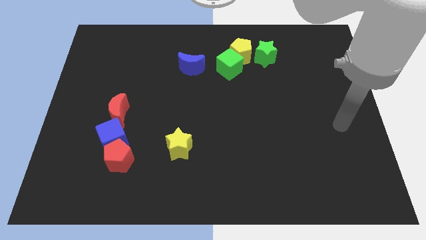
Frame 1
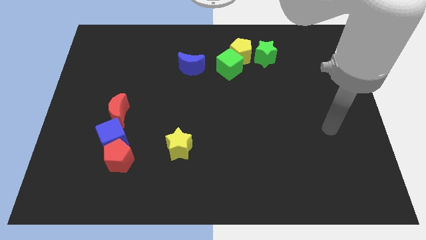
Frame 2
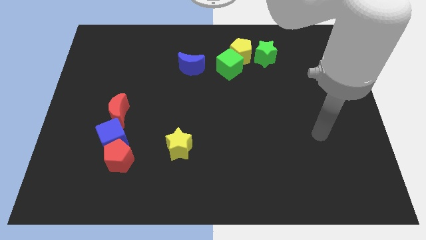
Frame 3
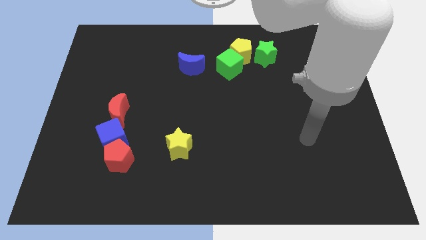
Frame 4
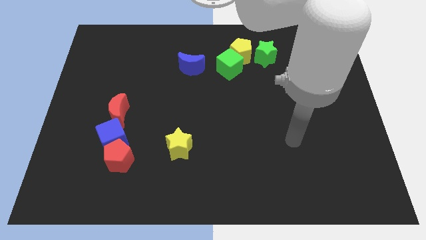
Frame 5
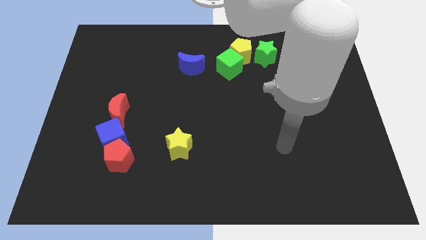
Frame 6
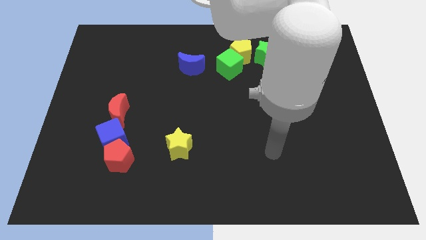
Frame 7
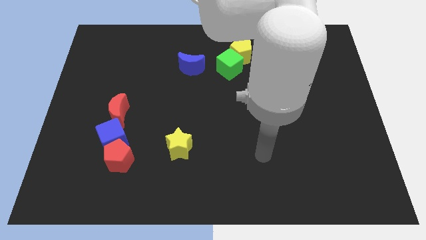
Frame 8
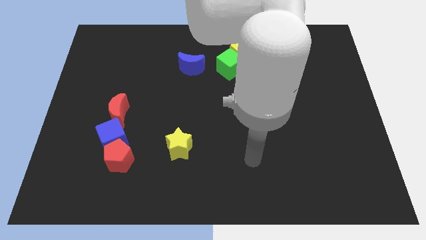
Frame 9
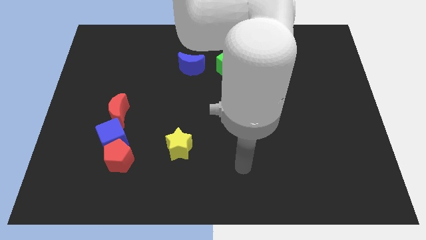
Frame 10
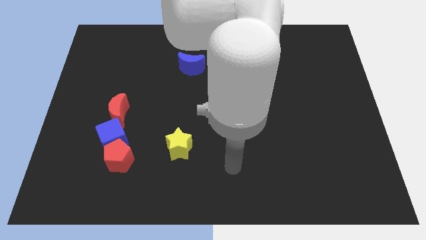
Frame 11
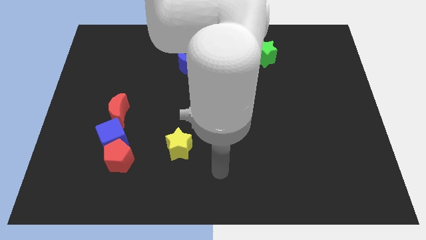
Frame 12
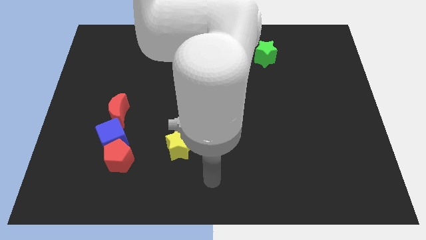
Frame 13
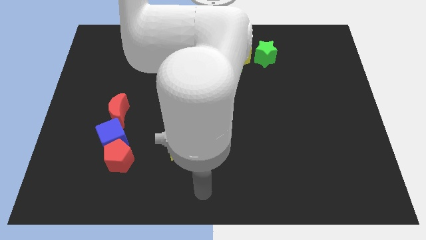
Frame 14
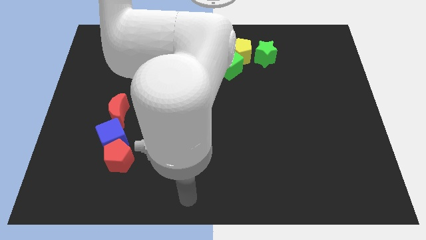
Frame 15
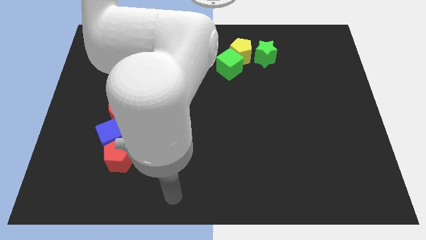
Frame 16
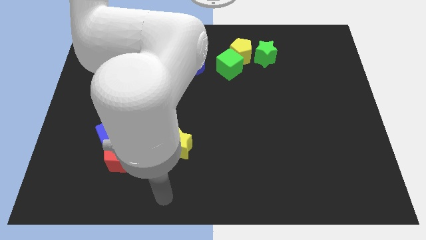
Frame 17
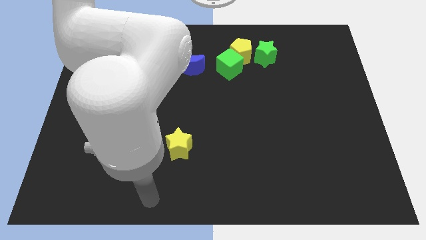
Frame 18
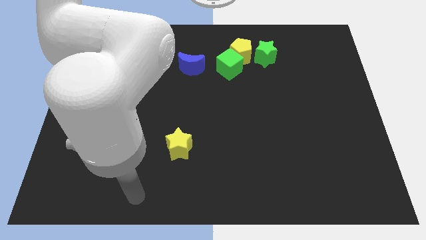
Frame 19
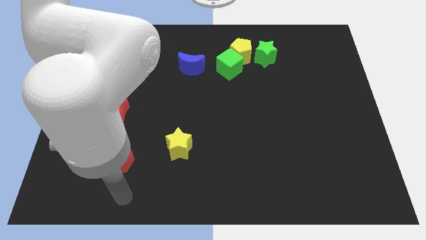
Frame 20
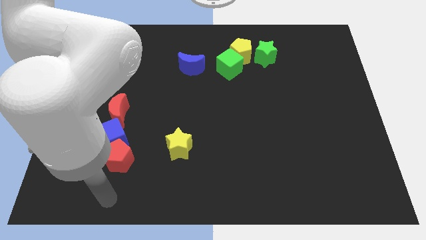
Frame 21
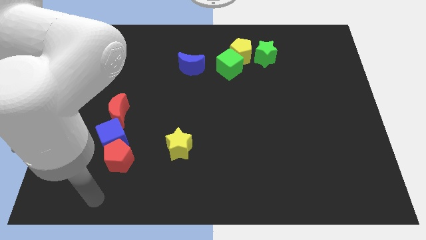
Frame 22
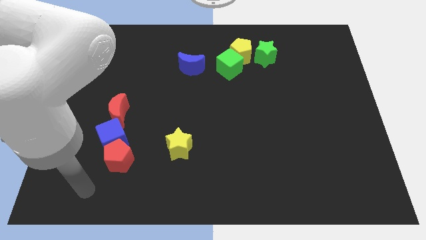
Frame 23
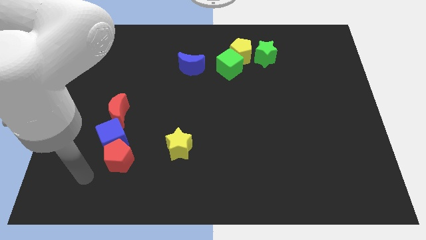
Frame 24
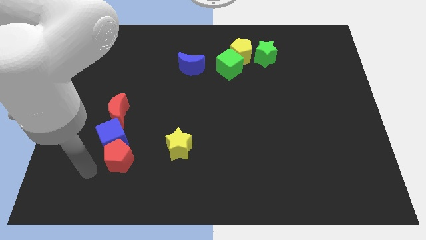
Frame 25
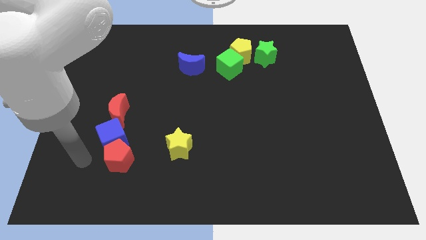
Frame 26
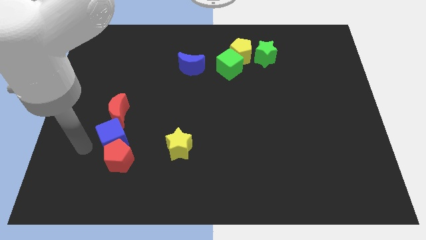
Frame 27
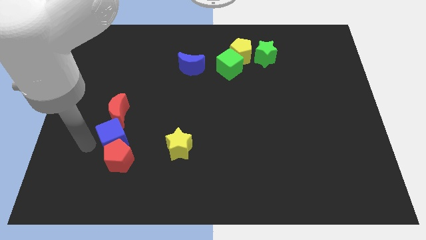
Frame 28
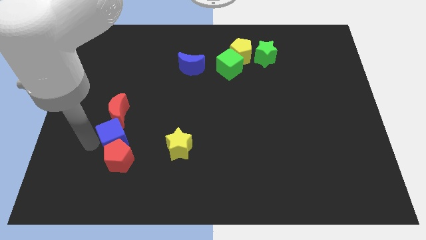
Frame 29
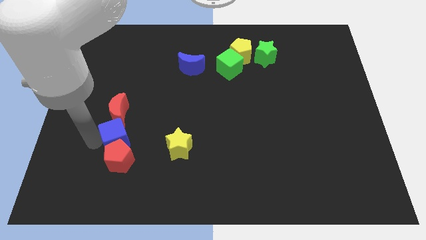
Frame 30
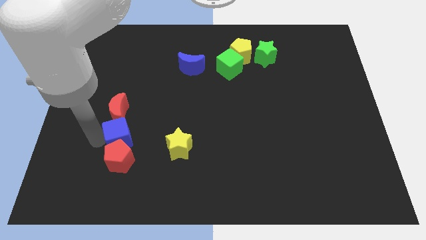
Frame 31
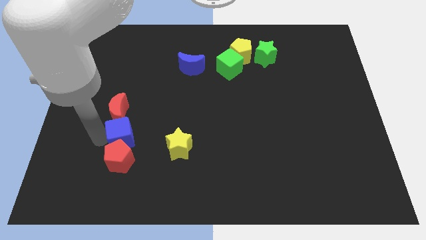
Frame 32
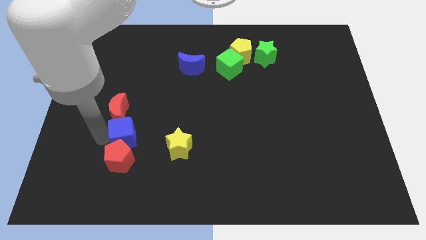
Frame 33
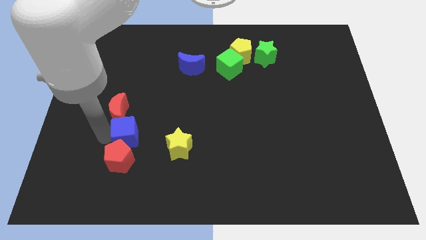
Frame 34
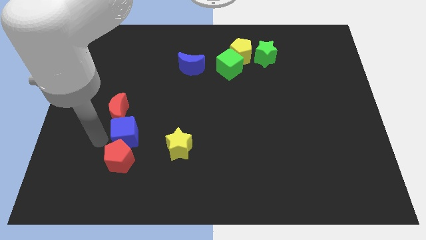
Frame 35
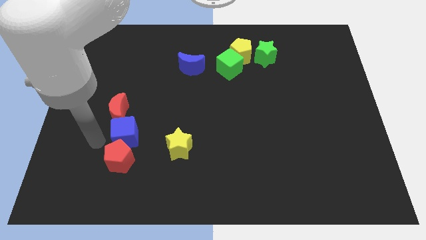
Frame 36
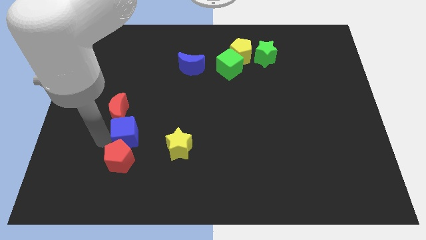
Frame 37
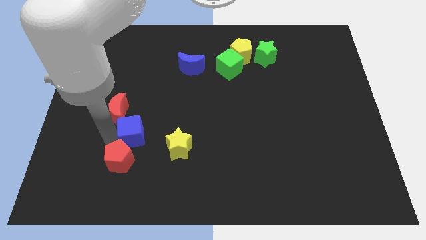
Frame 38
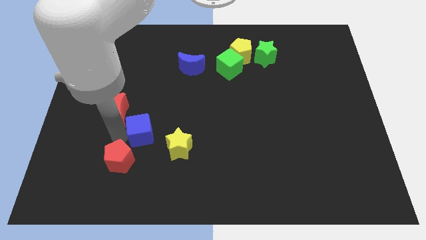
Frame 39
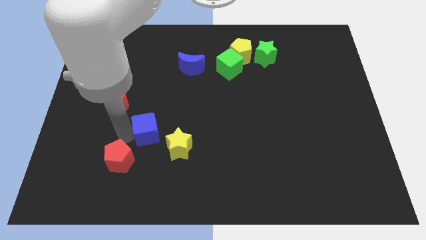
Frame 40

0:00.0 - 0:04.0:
move the blue cube somewhat to the right

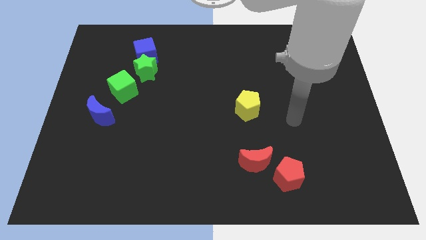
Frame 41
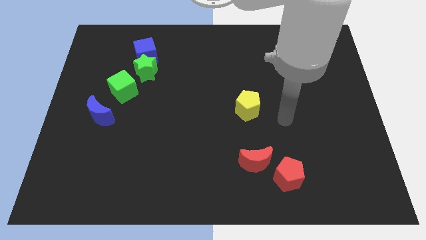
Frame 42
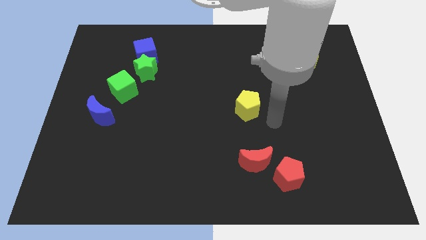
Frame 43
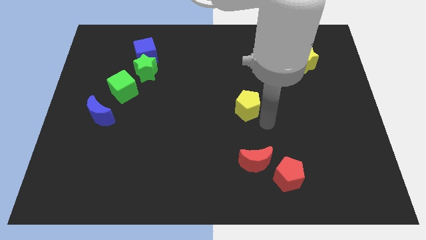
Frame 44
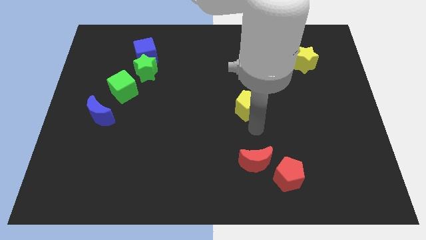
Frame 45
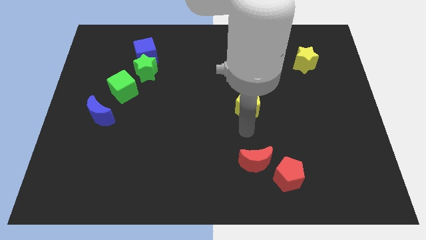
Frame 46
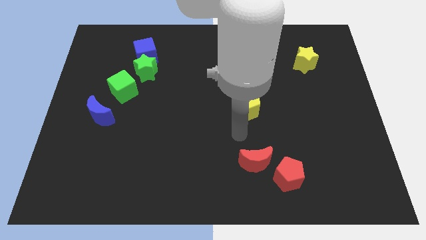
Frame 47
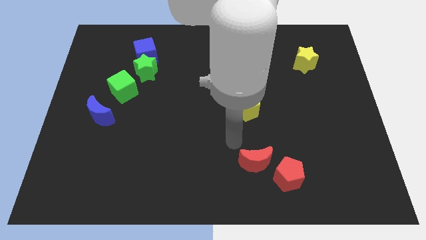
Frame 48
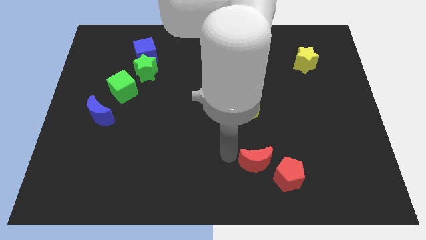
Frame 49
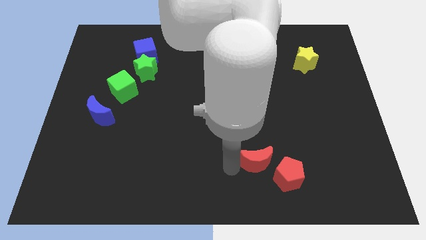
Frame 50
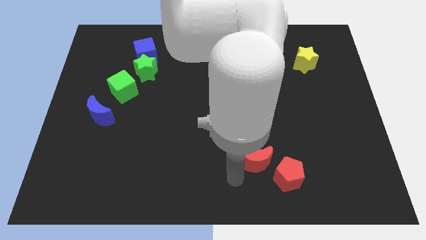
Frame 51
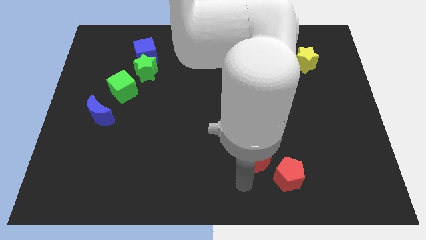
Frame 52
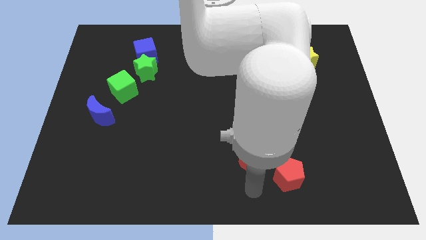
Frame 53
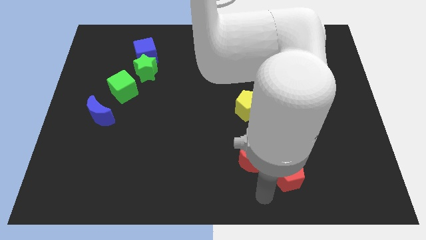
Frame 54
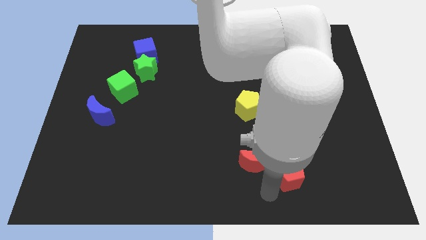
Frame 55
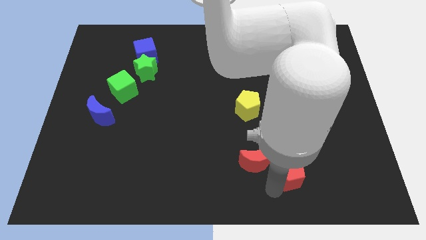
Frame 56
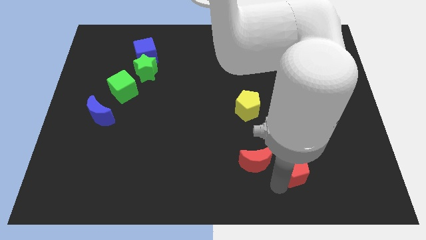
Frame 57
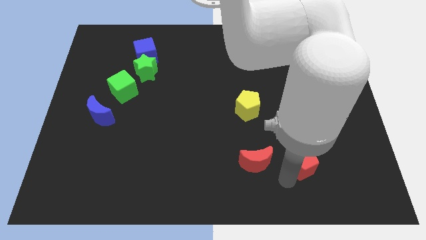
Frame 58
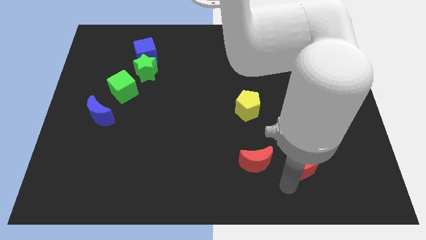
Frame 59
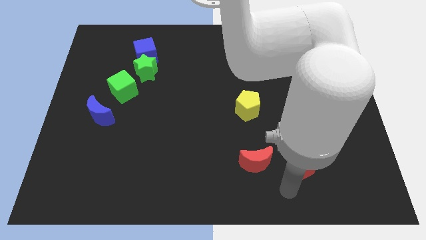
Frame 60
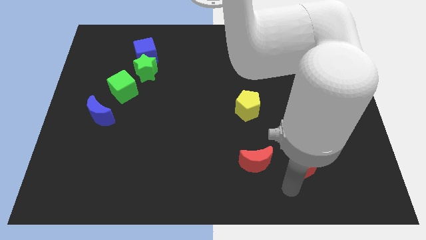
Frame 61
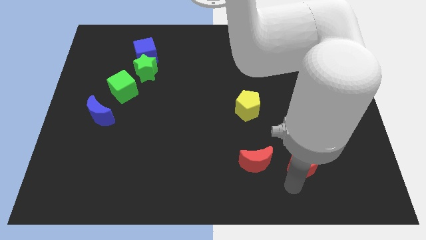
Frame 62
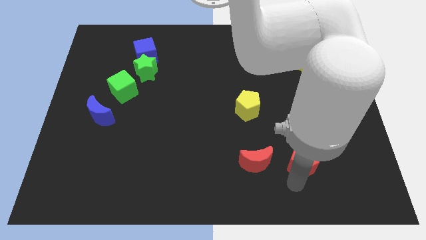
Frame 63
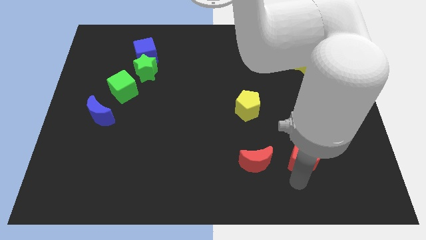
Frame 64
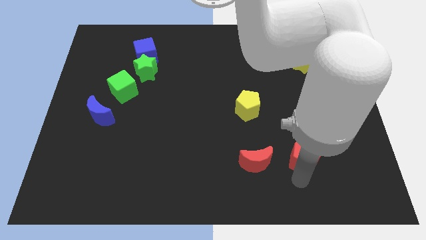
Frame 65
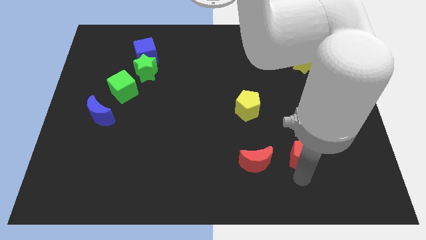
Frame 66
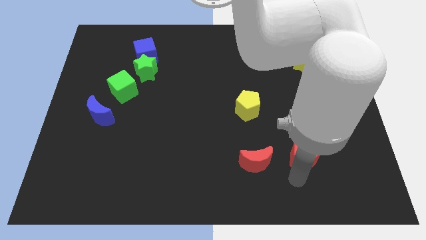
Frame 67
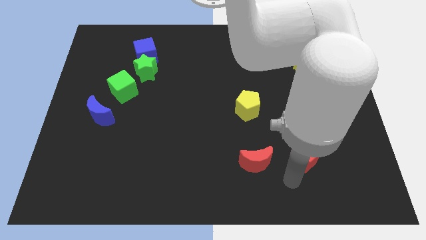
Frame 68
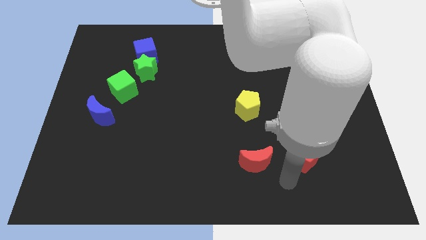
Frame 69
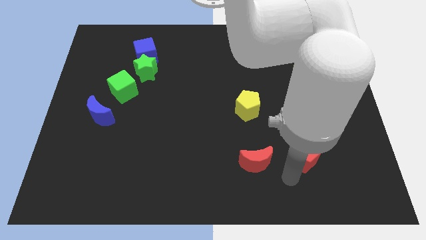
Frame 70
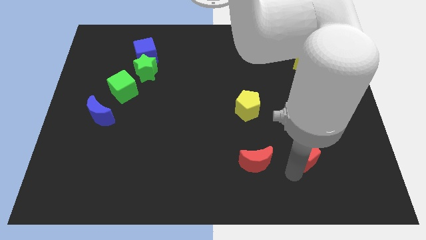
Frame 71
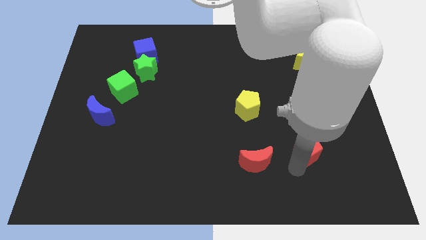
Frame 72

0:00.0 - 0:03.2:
slightly move the red pentagon up and right diagonally

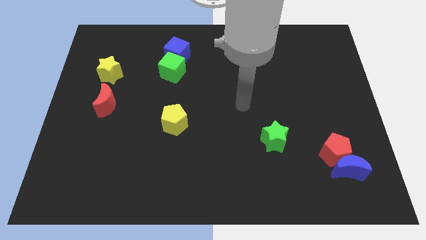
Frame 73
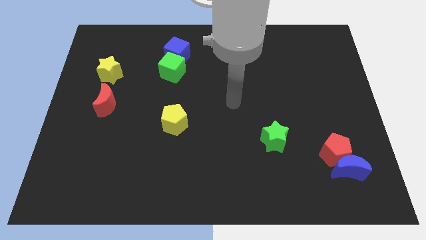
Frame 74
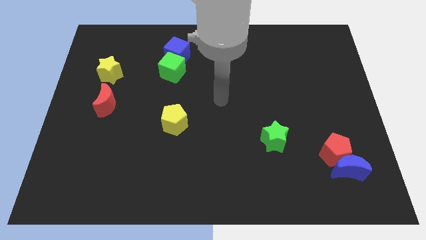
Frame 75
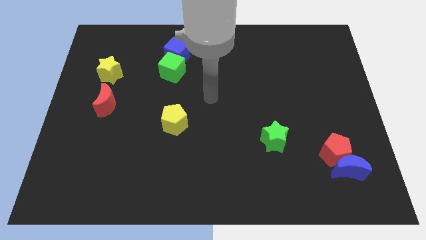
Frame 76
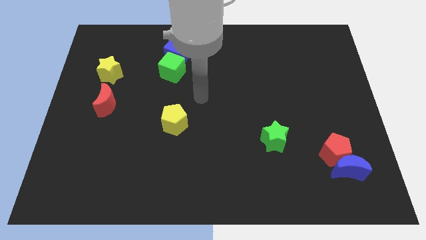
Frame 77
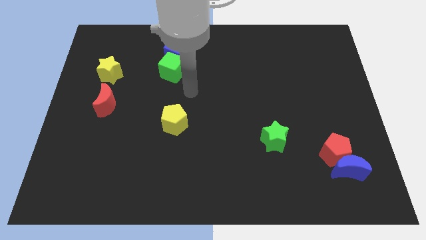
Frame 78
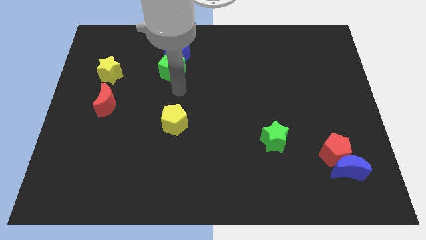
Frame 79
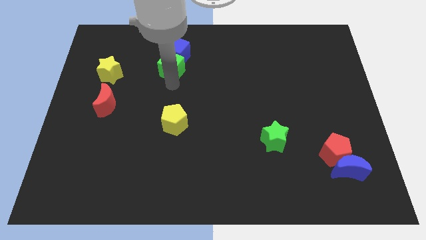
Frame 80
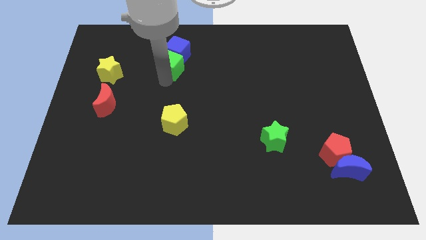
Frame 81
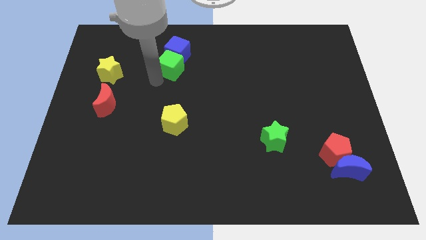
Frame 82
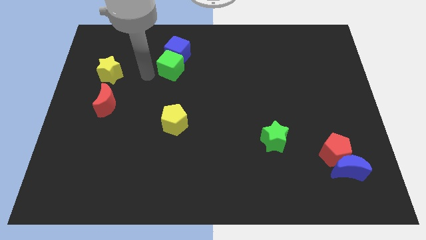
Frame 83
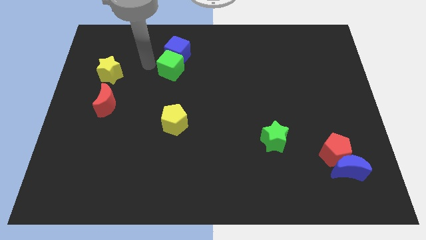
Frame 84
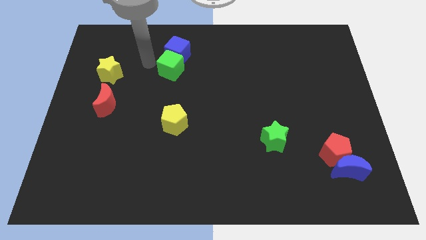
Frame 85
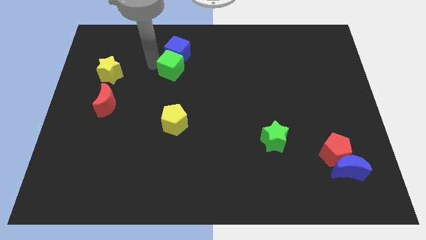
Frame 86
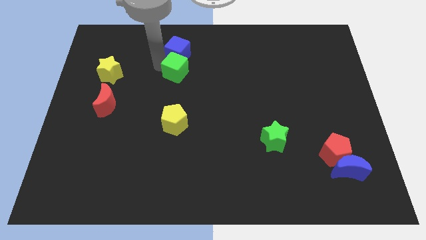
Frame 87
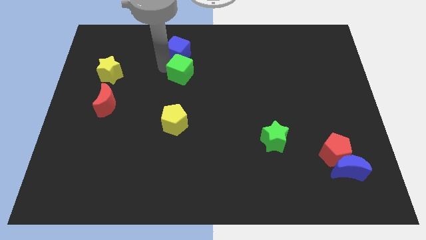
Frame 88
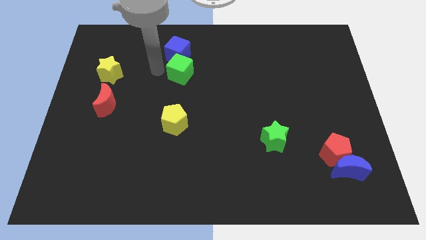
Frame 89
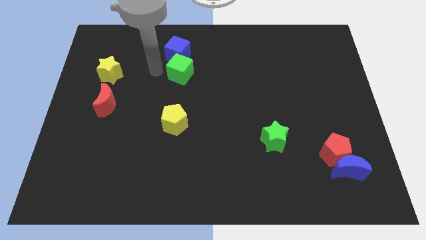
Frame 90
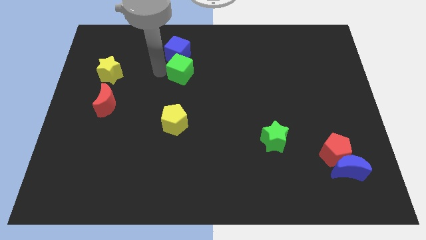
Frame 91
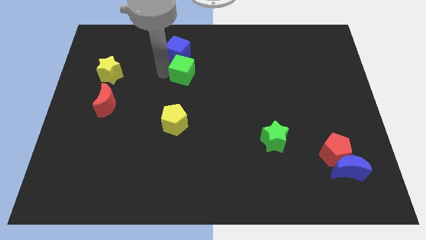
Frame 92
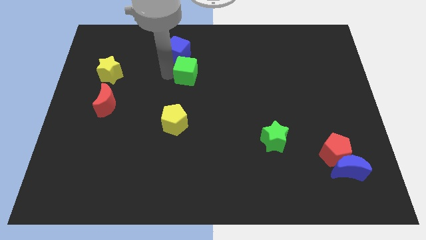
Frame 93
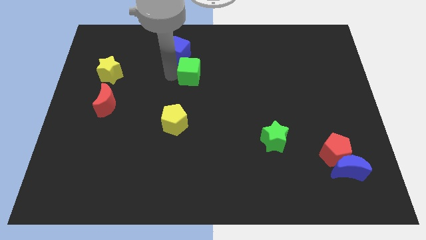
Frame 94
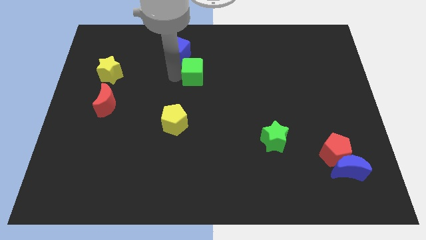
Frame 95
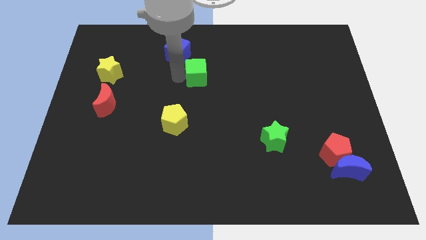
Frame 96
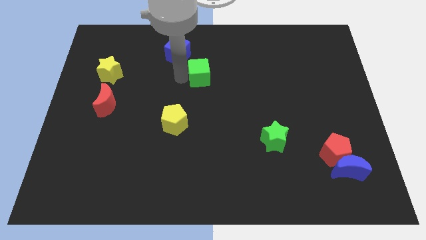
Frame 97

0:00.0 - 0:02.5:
slide the green cube to the right slightly
